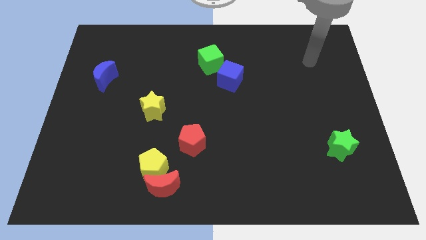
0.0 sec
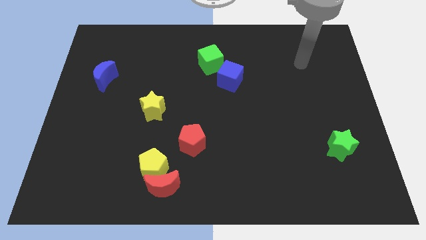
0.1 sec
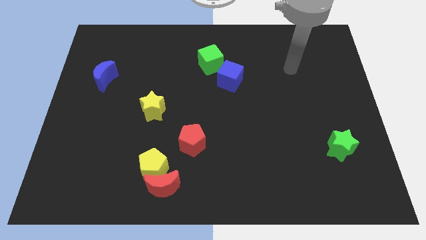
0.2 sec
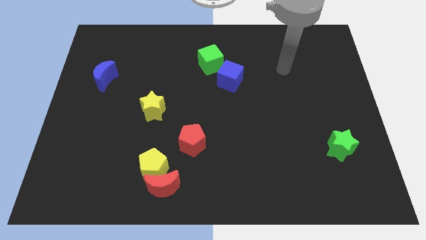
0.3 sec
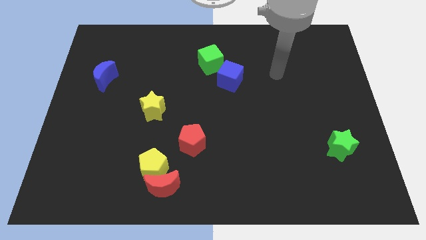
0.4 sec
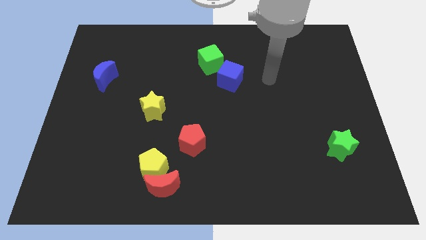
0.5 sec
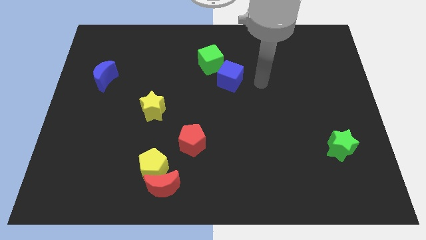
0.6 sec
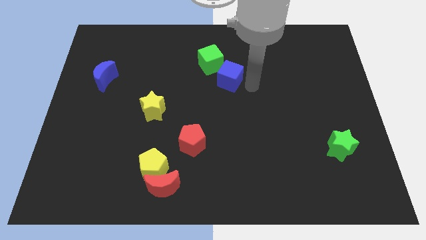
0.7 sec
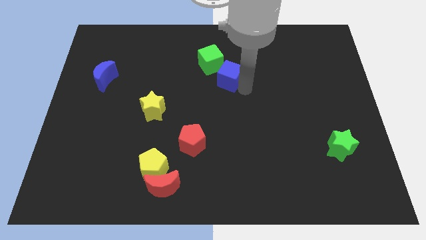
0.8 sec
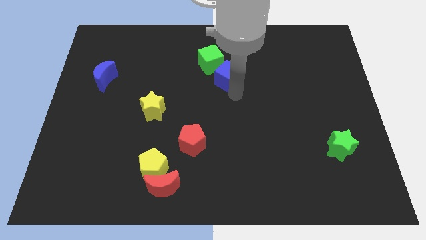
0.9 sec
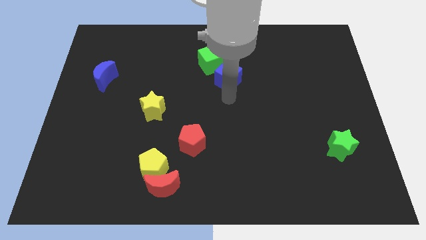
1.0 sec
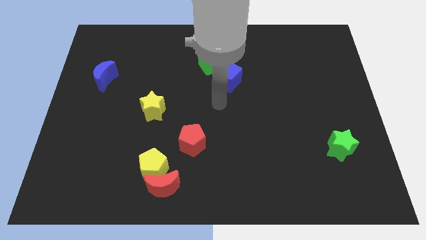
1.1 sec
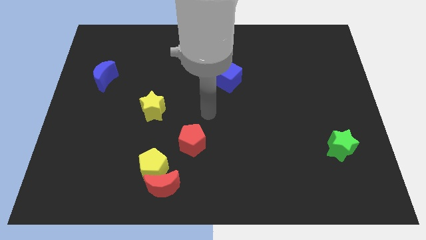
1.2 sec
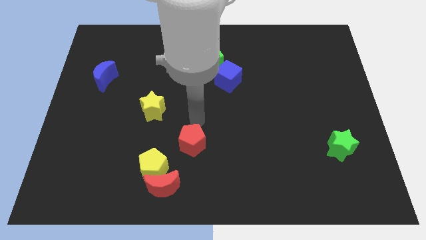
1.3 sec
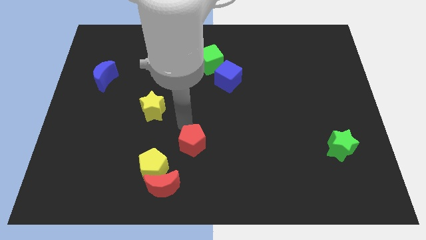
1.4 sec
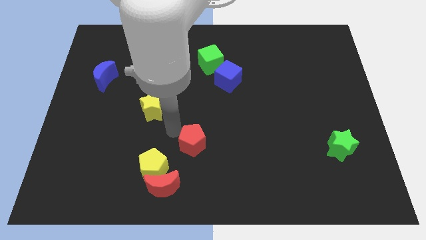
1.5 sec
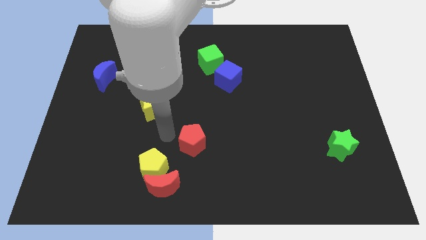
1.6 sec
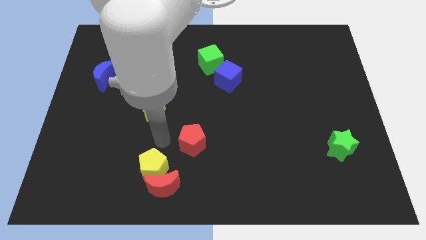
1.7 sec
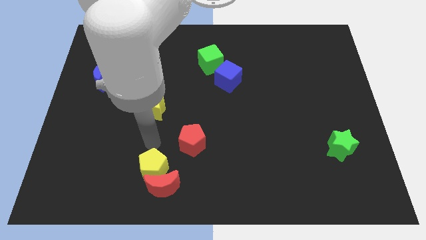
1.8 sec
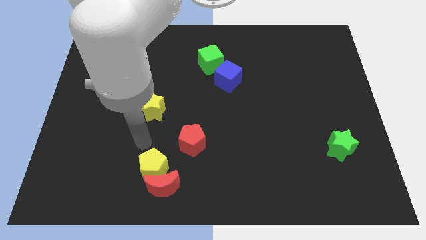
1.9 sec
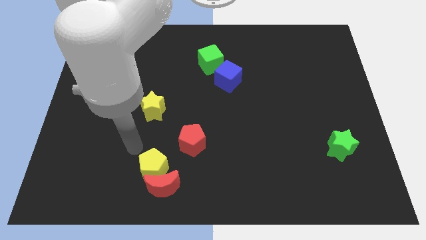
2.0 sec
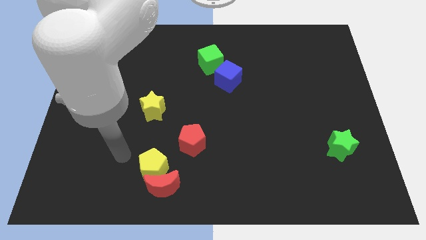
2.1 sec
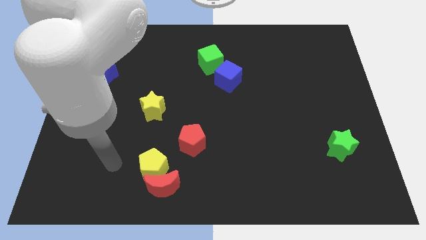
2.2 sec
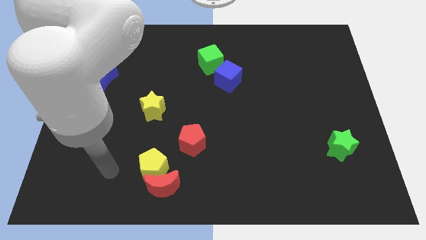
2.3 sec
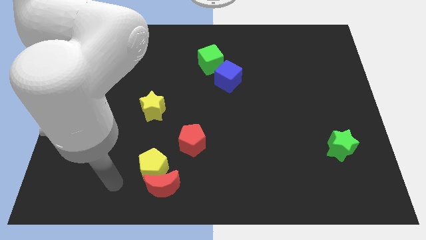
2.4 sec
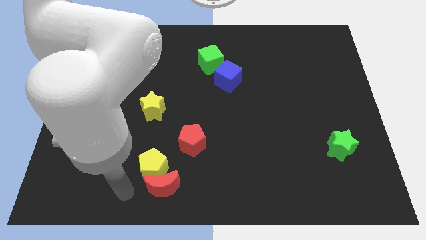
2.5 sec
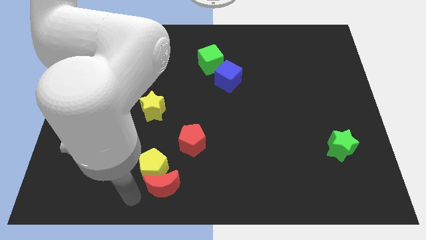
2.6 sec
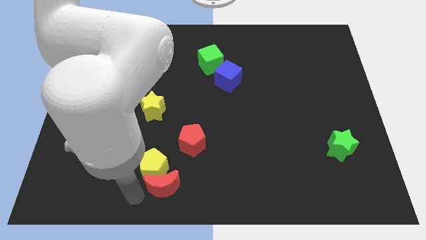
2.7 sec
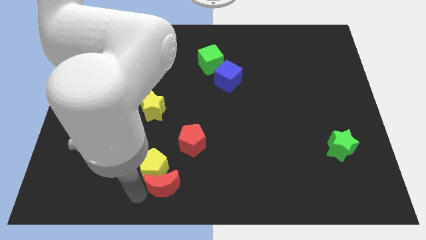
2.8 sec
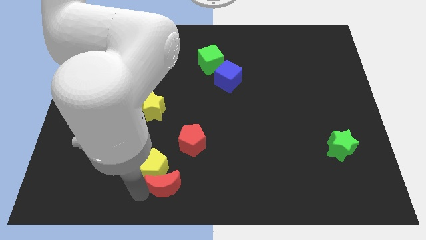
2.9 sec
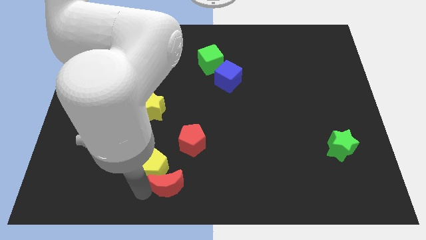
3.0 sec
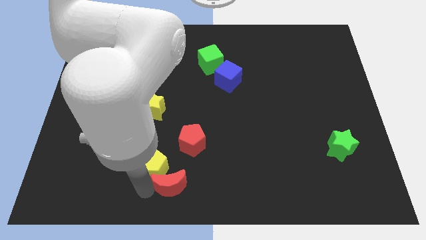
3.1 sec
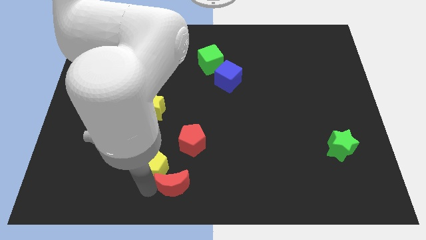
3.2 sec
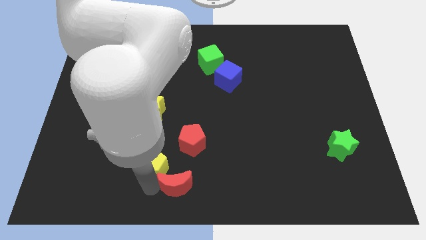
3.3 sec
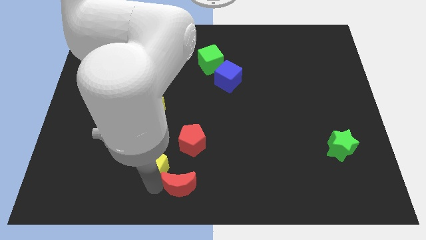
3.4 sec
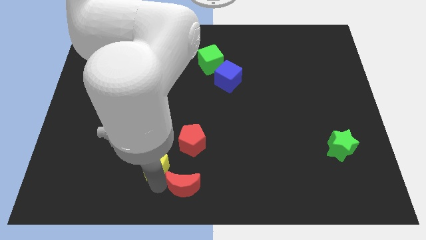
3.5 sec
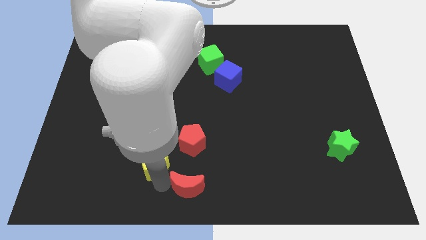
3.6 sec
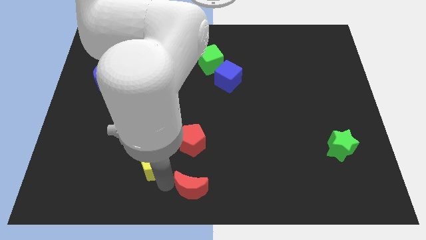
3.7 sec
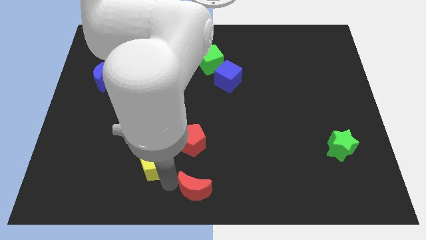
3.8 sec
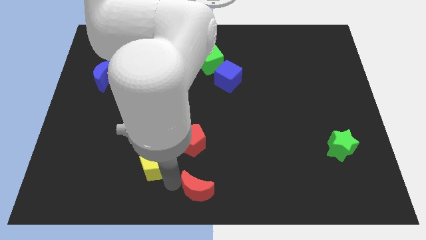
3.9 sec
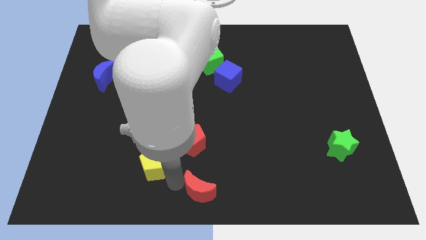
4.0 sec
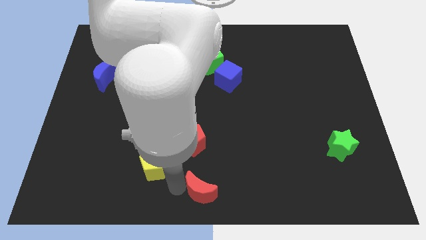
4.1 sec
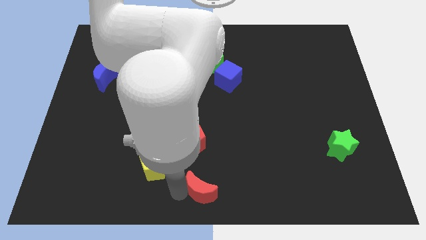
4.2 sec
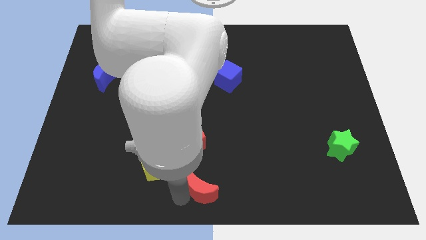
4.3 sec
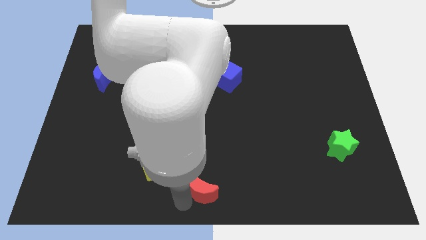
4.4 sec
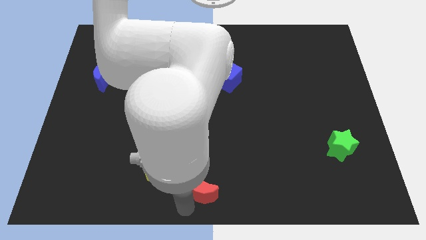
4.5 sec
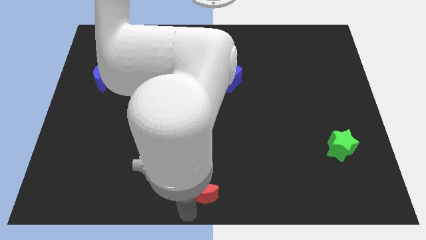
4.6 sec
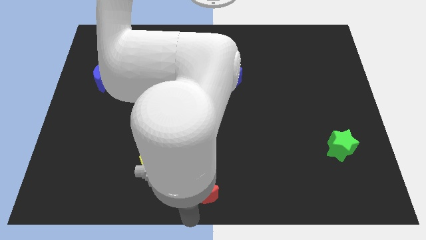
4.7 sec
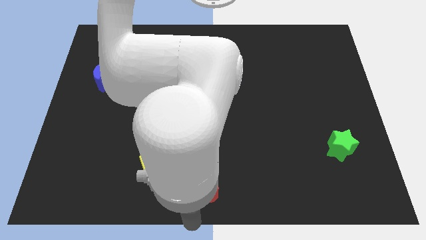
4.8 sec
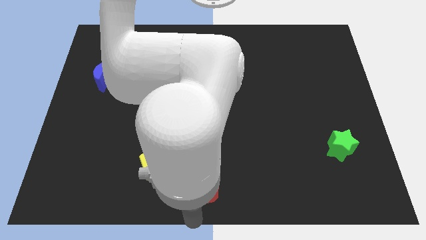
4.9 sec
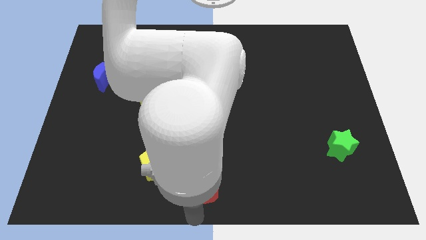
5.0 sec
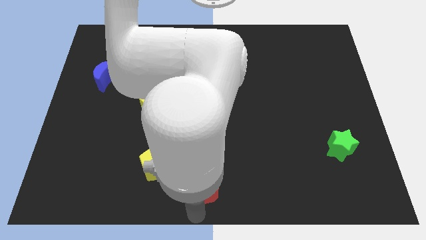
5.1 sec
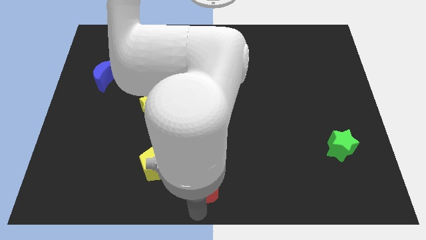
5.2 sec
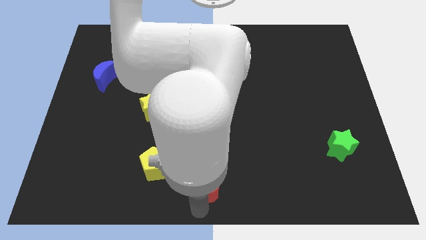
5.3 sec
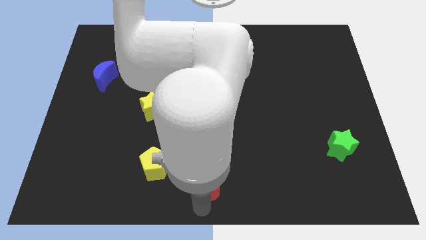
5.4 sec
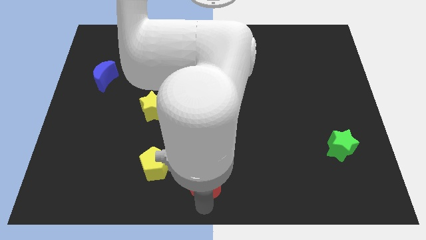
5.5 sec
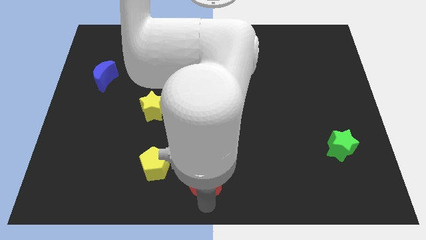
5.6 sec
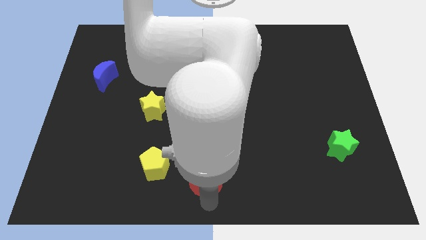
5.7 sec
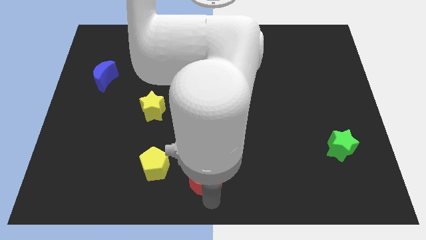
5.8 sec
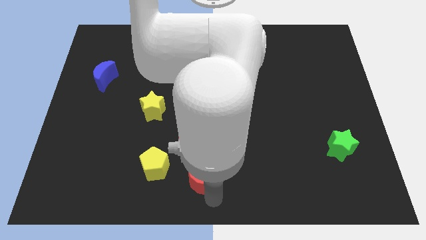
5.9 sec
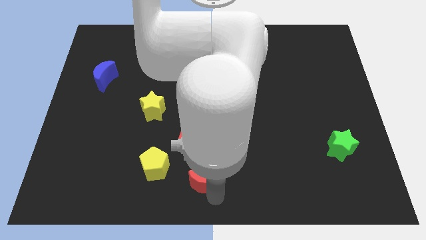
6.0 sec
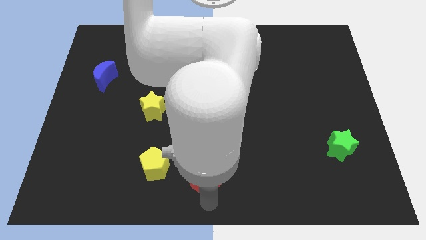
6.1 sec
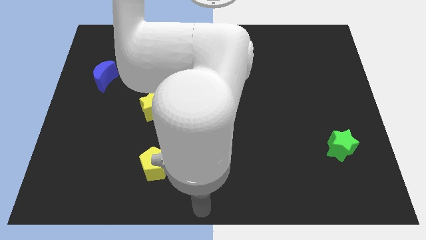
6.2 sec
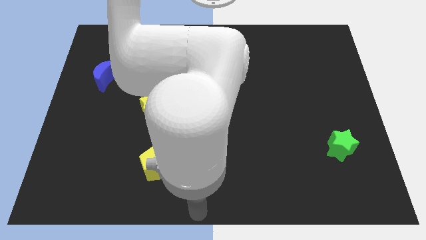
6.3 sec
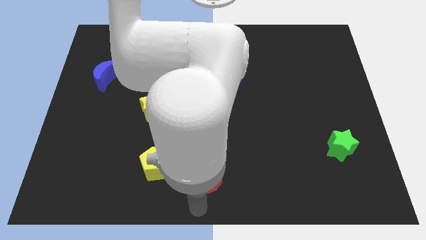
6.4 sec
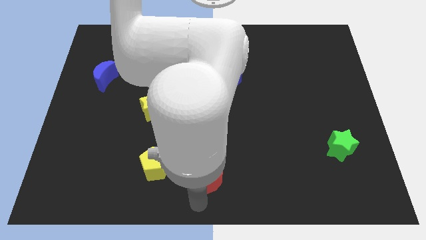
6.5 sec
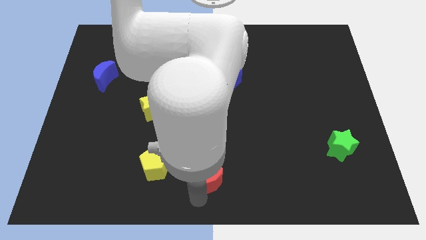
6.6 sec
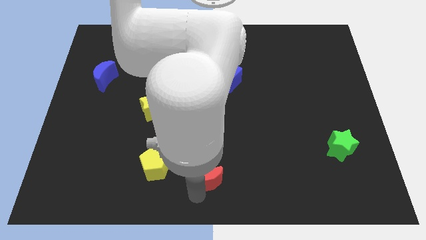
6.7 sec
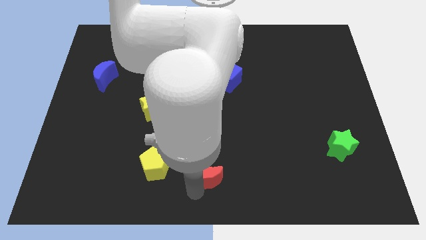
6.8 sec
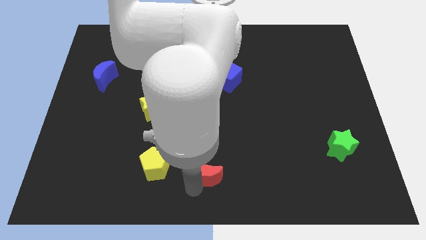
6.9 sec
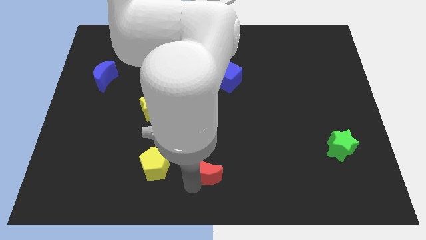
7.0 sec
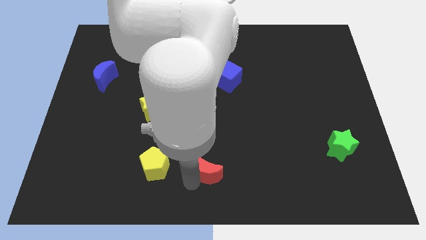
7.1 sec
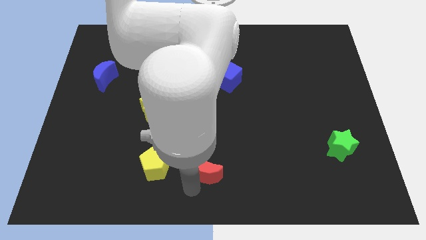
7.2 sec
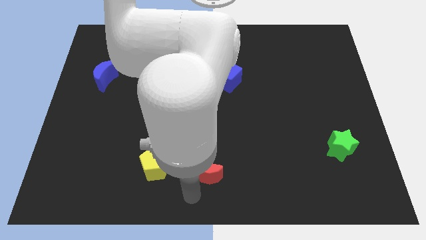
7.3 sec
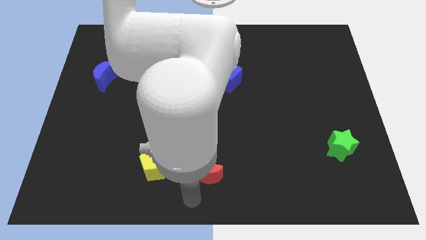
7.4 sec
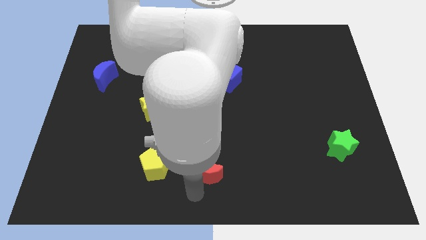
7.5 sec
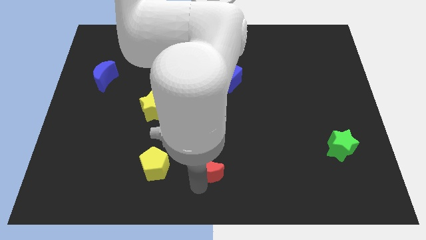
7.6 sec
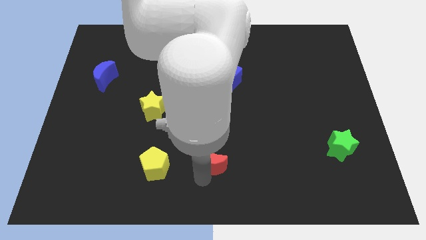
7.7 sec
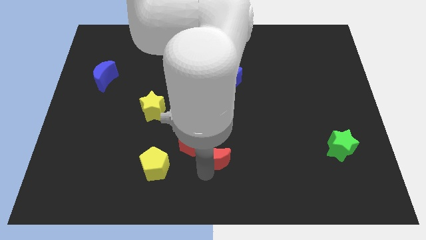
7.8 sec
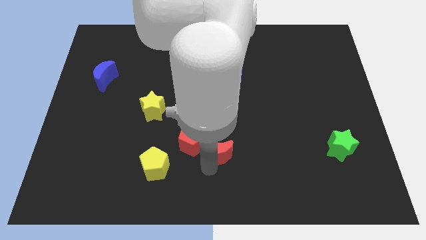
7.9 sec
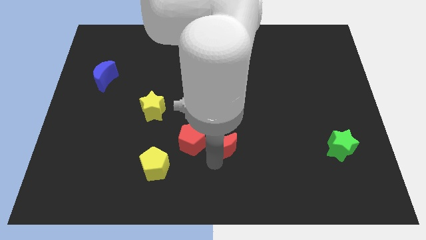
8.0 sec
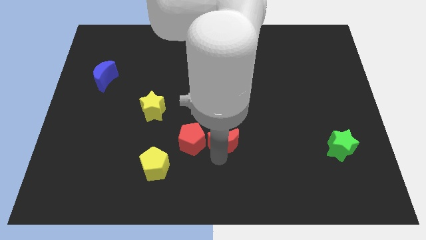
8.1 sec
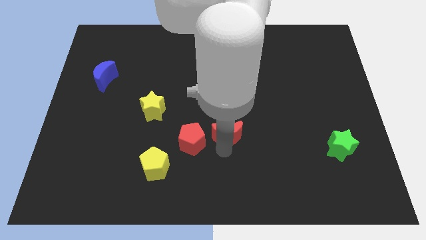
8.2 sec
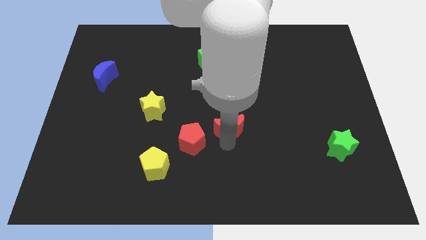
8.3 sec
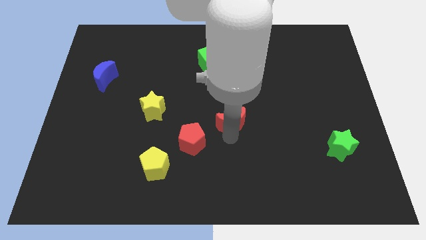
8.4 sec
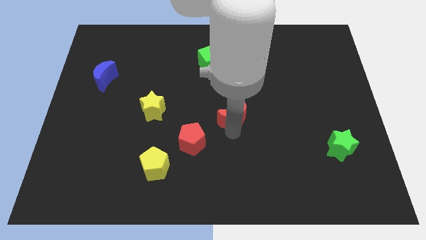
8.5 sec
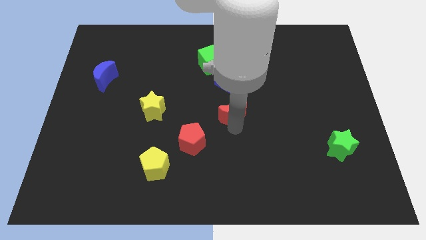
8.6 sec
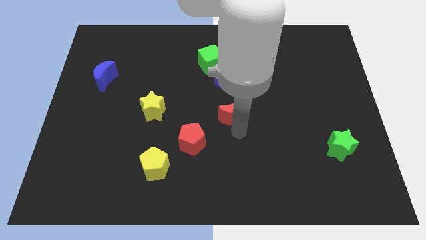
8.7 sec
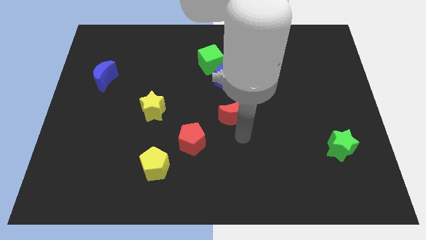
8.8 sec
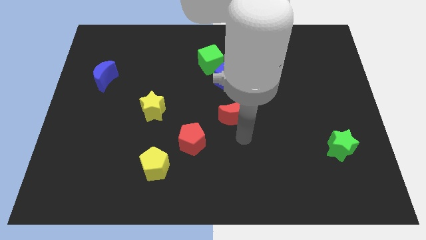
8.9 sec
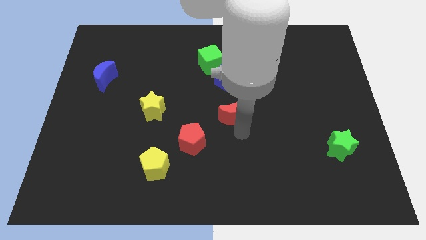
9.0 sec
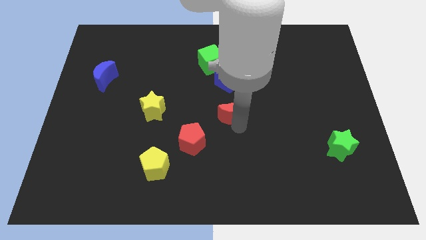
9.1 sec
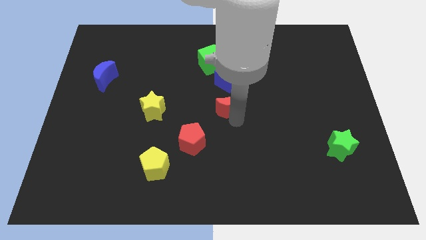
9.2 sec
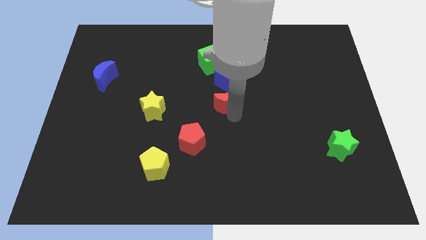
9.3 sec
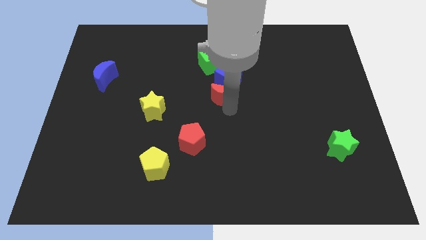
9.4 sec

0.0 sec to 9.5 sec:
push the red moon to the blue cube
